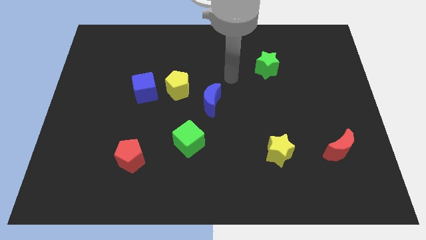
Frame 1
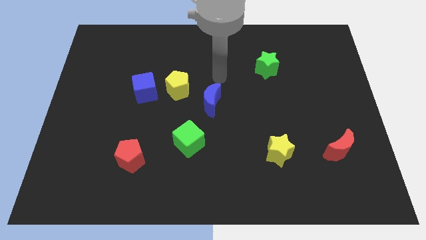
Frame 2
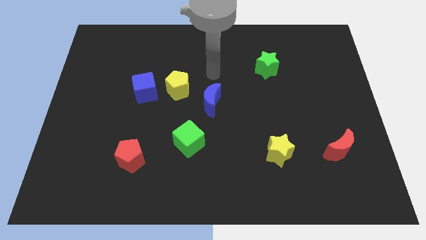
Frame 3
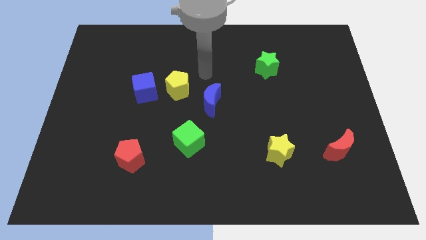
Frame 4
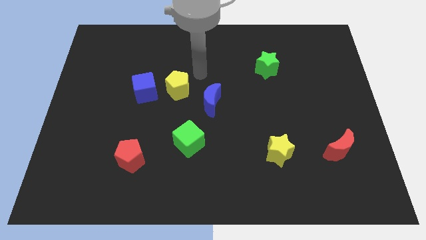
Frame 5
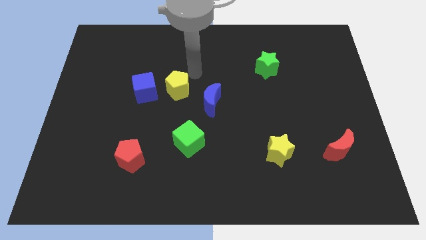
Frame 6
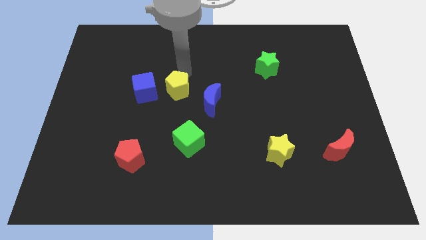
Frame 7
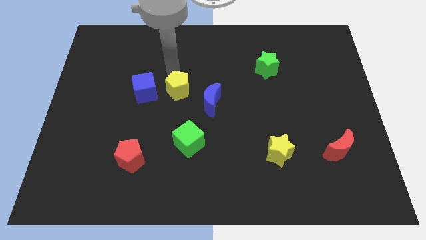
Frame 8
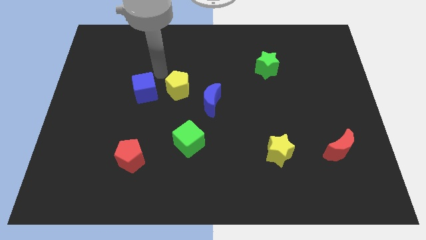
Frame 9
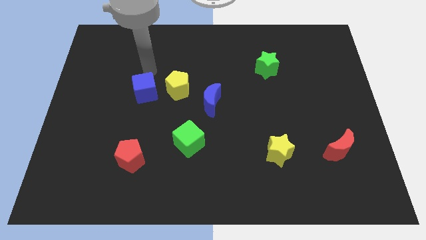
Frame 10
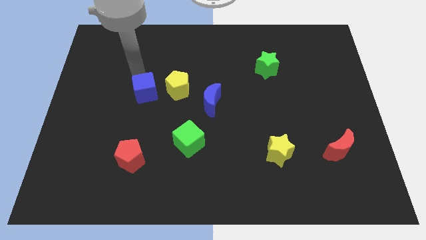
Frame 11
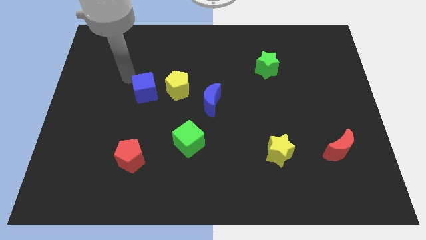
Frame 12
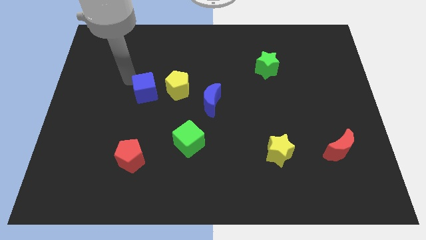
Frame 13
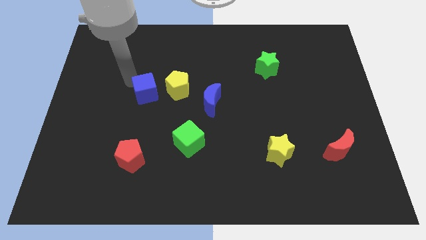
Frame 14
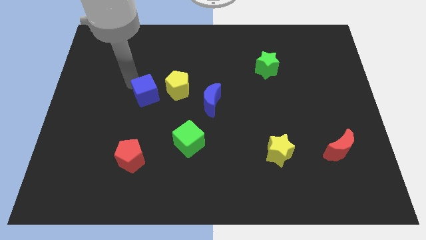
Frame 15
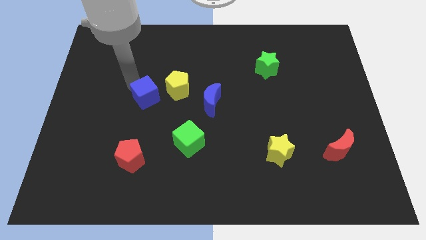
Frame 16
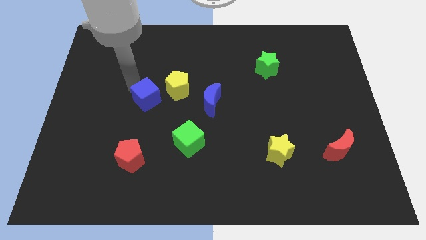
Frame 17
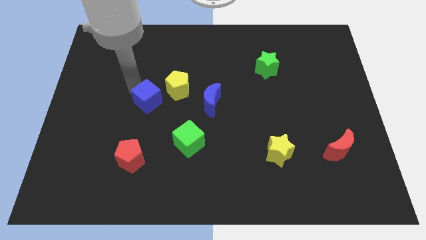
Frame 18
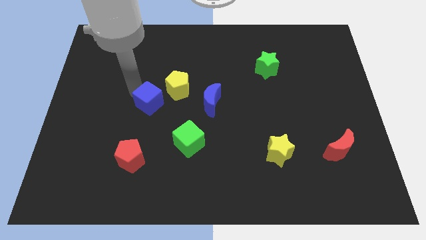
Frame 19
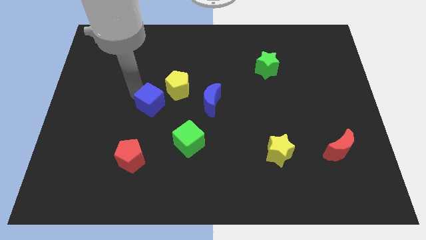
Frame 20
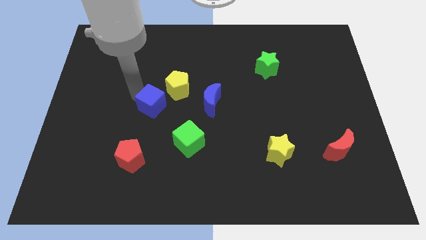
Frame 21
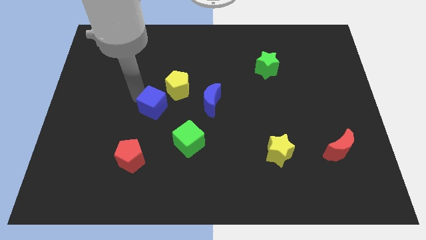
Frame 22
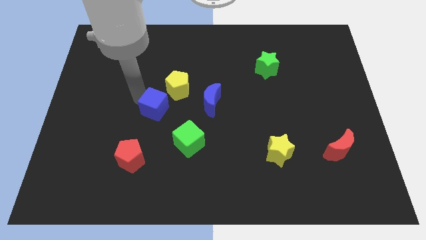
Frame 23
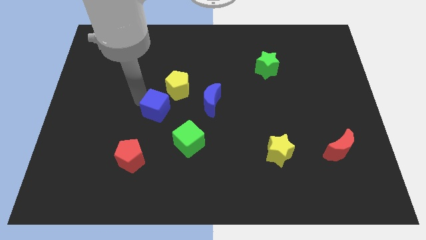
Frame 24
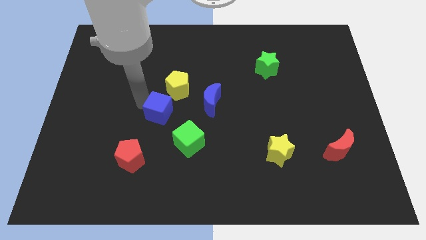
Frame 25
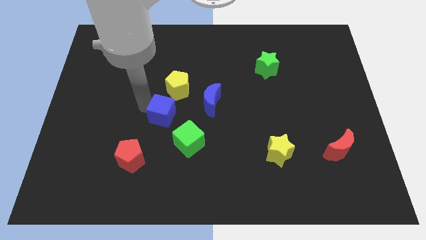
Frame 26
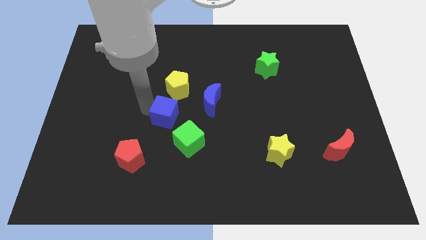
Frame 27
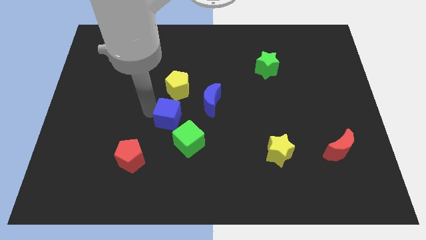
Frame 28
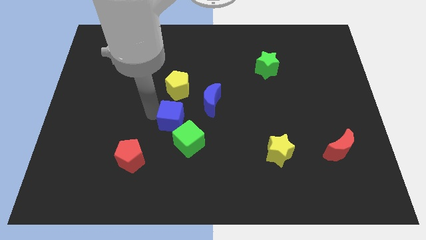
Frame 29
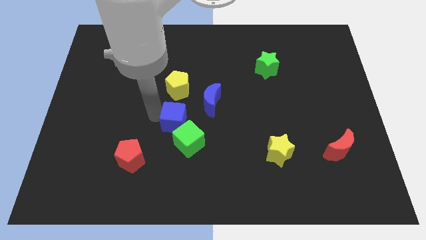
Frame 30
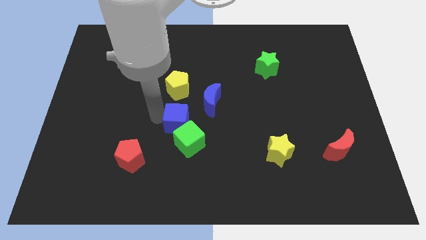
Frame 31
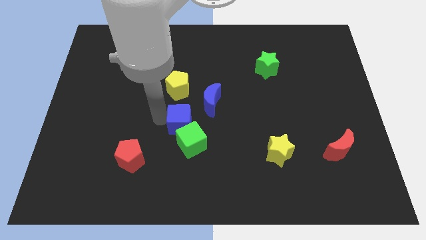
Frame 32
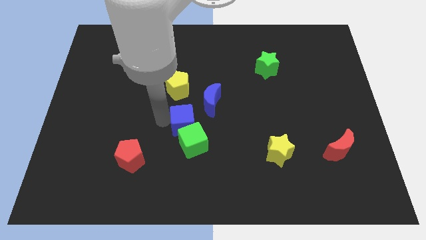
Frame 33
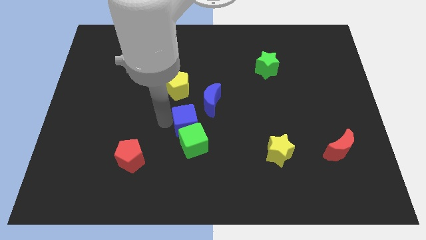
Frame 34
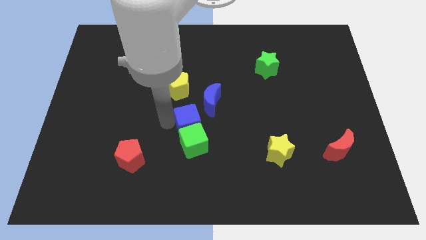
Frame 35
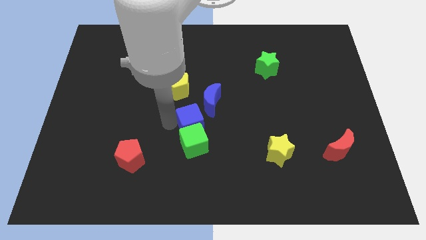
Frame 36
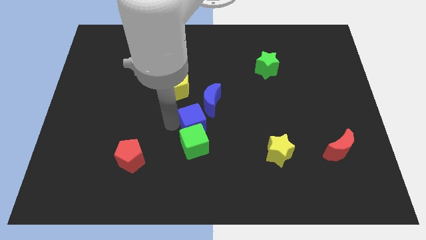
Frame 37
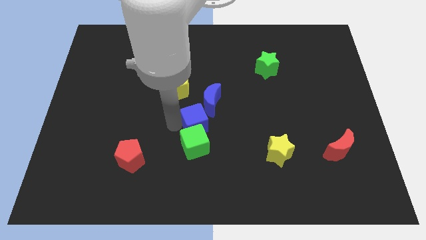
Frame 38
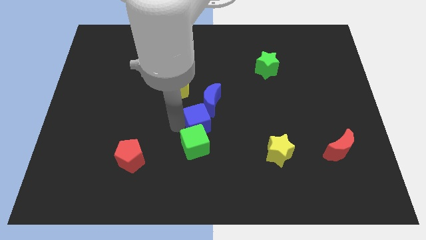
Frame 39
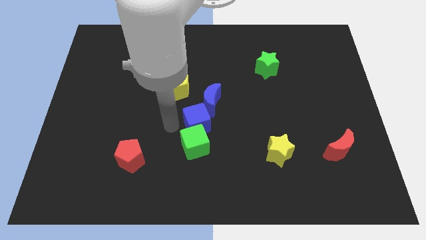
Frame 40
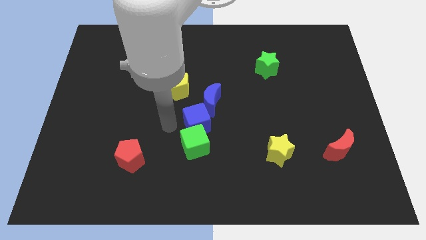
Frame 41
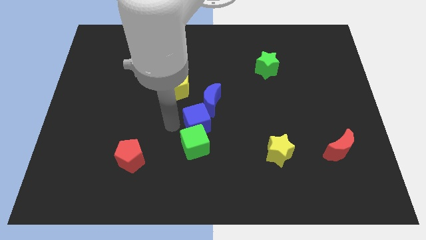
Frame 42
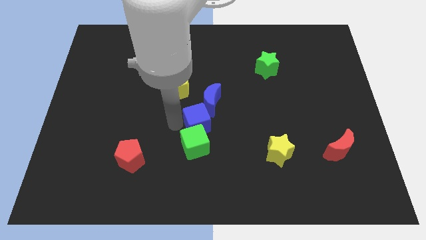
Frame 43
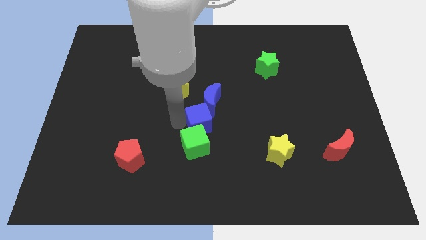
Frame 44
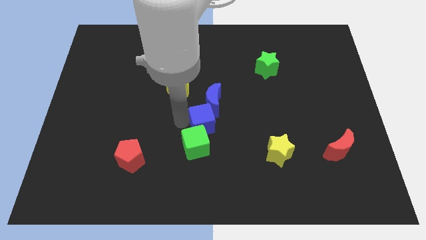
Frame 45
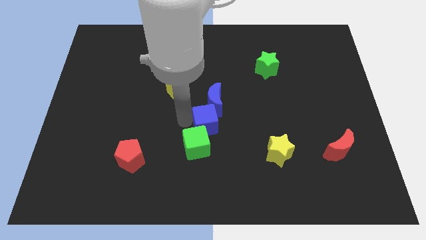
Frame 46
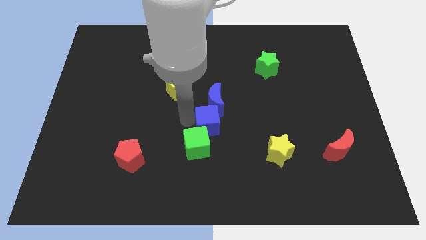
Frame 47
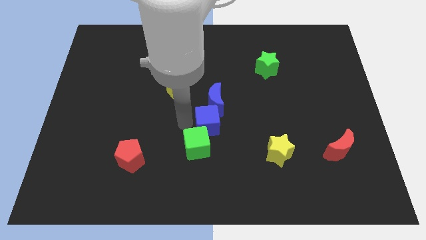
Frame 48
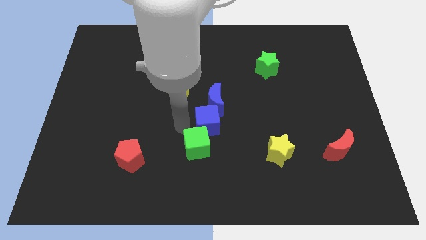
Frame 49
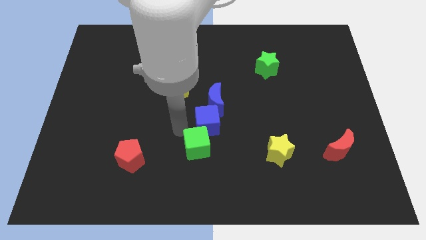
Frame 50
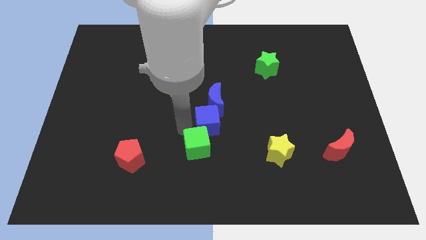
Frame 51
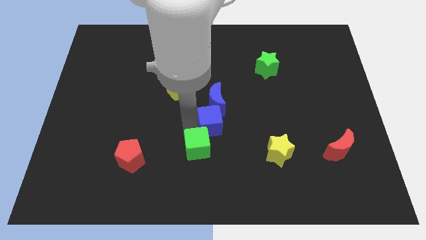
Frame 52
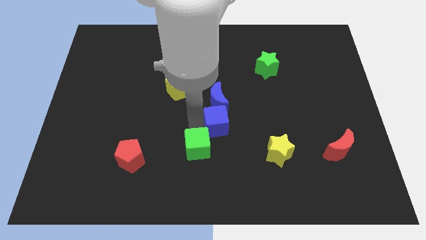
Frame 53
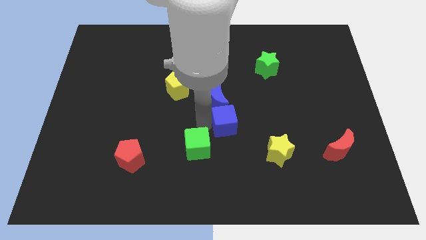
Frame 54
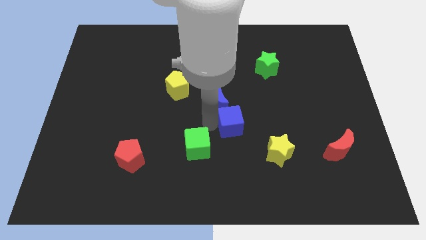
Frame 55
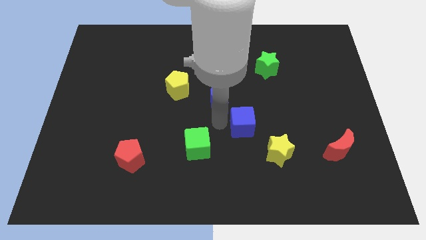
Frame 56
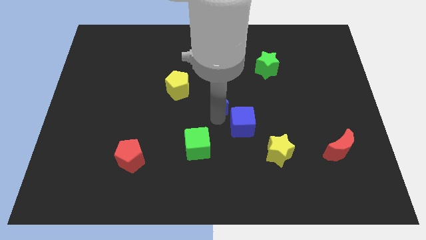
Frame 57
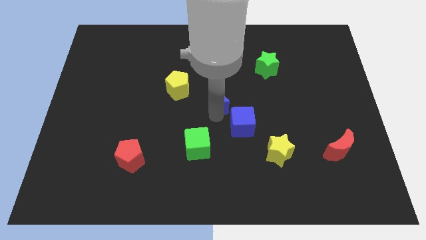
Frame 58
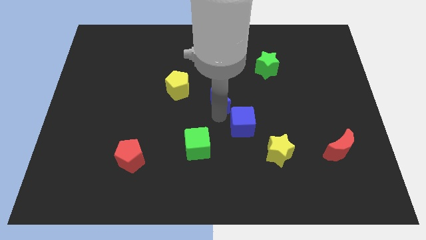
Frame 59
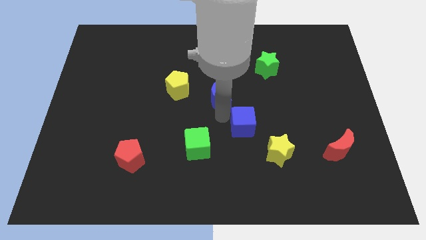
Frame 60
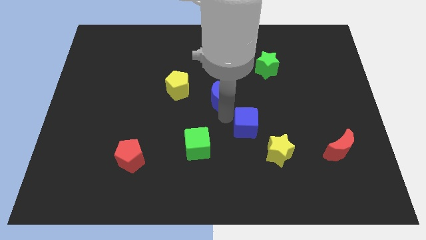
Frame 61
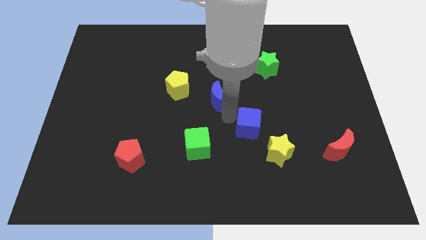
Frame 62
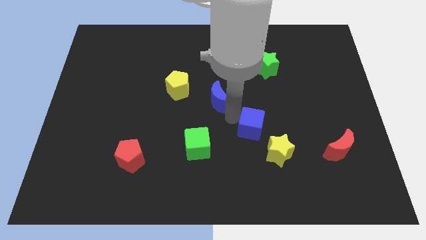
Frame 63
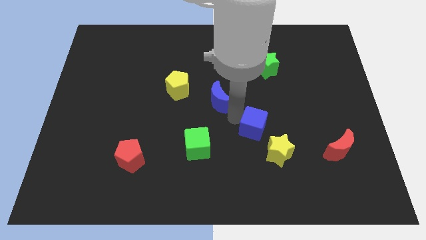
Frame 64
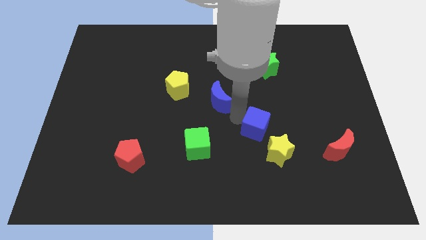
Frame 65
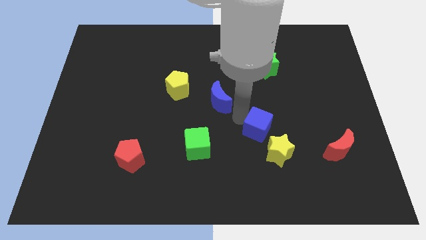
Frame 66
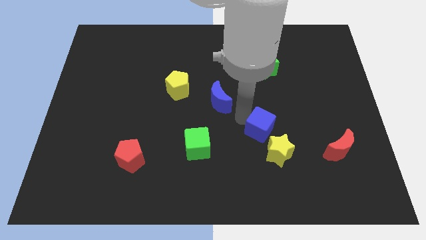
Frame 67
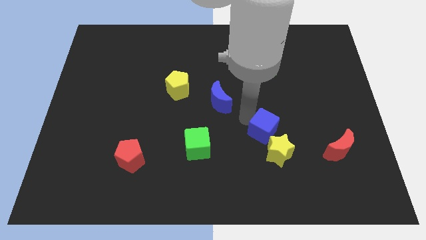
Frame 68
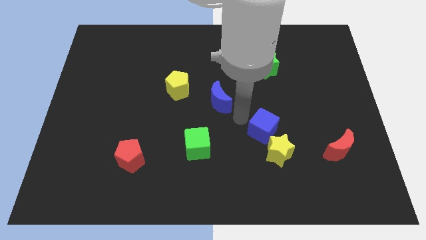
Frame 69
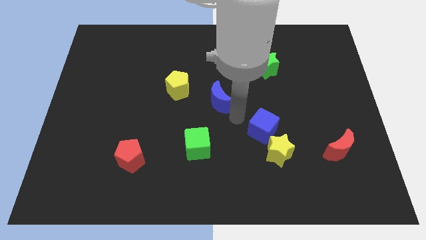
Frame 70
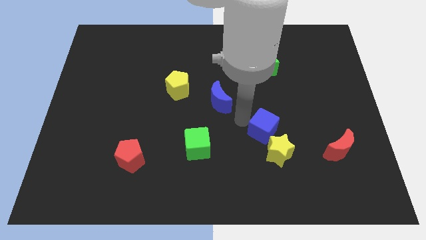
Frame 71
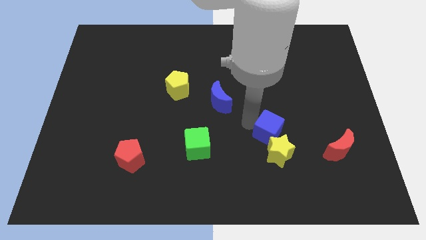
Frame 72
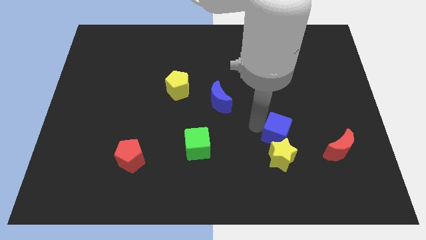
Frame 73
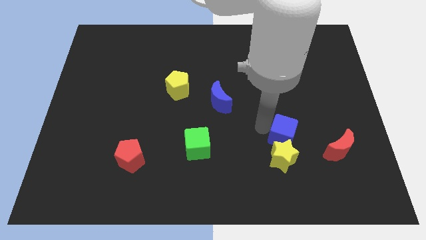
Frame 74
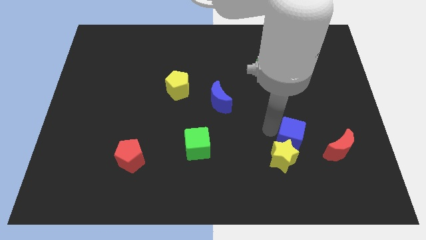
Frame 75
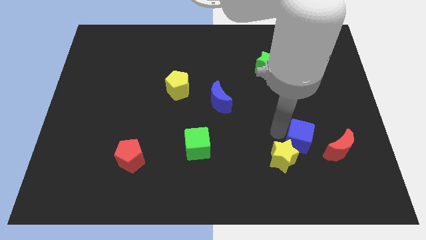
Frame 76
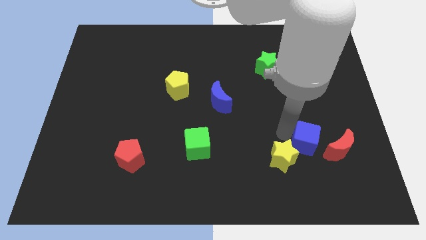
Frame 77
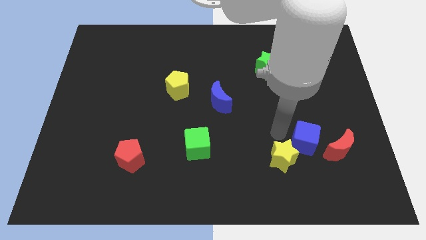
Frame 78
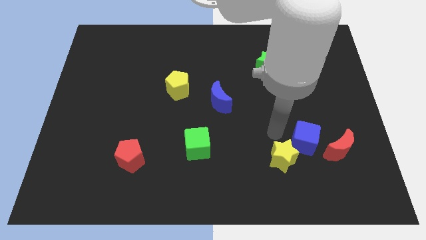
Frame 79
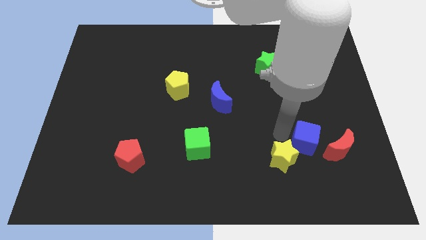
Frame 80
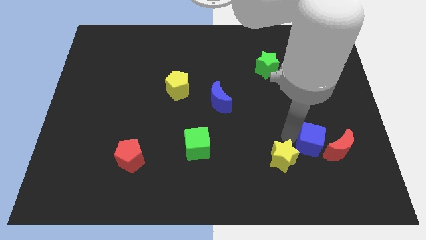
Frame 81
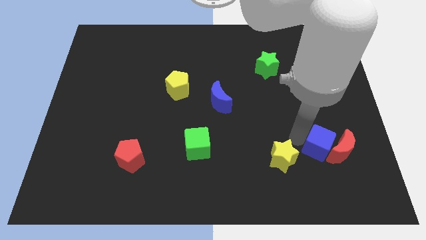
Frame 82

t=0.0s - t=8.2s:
push the blue cube towards the red moon
